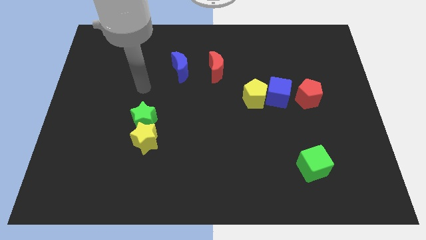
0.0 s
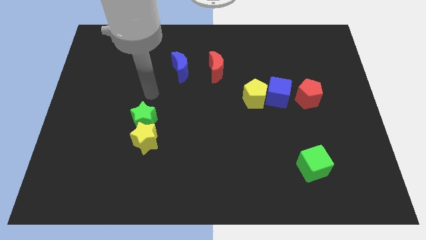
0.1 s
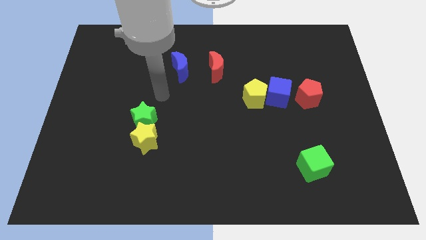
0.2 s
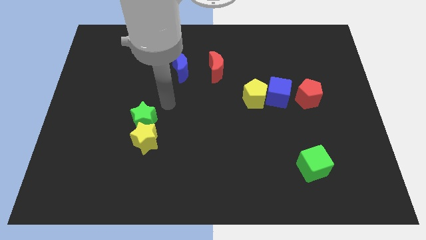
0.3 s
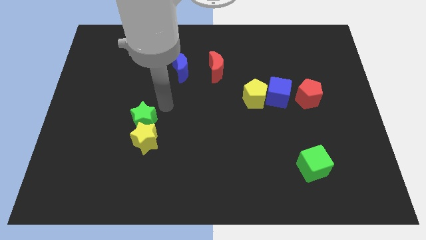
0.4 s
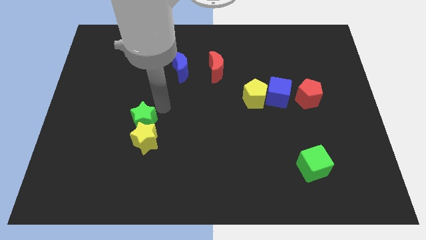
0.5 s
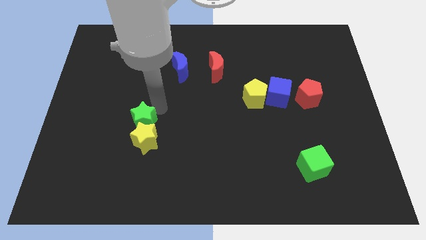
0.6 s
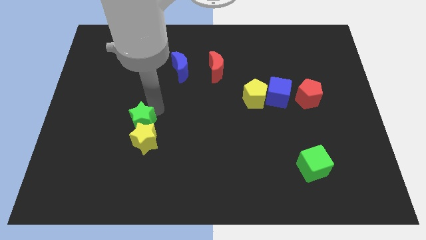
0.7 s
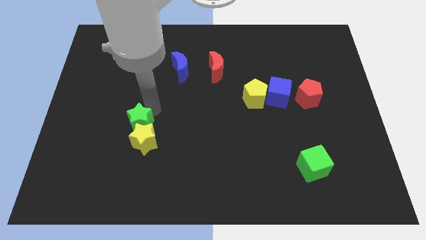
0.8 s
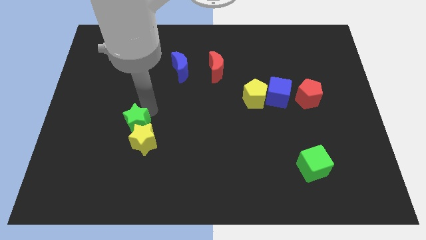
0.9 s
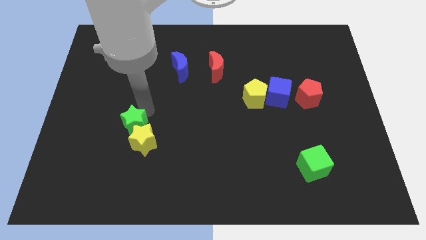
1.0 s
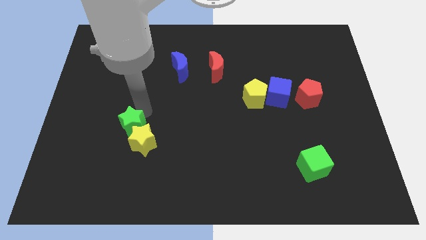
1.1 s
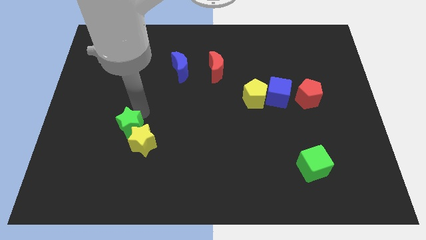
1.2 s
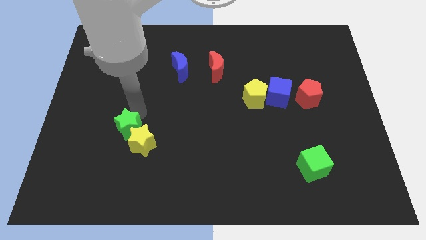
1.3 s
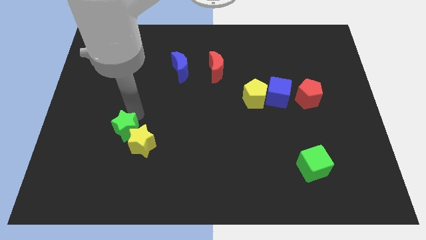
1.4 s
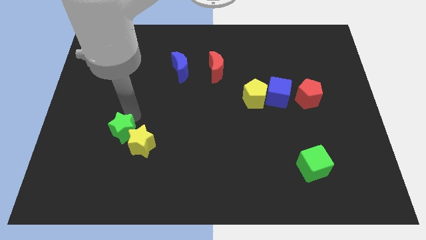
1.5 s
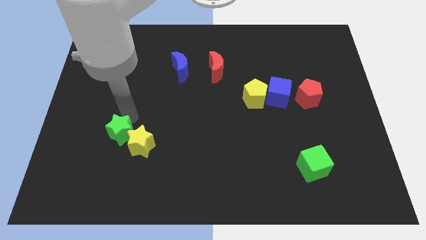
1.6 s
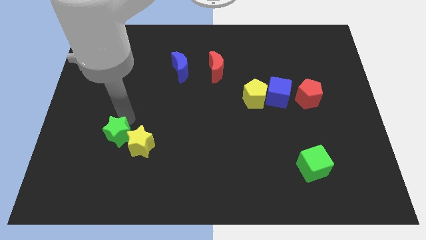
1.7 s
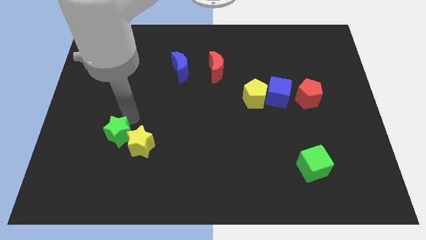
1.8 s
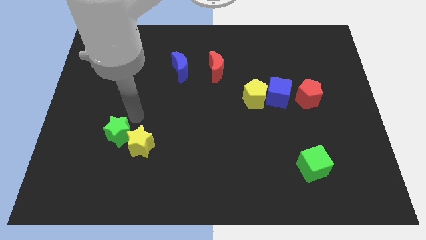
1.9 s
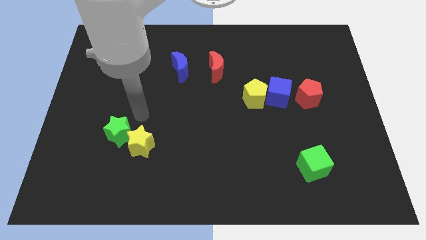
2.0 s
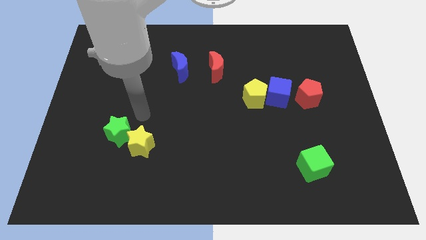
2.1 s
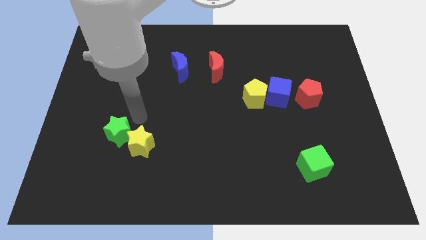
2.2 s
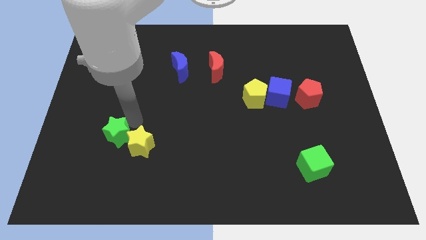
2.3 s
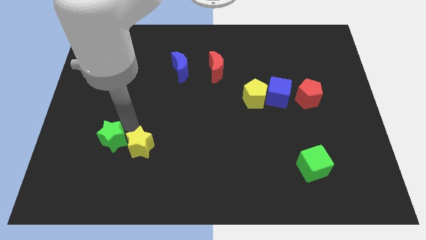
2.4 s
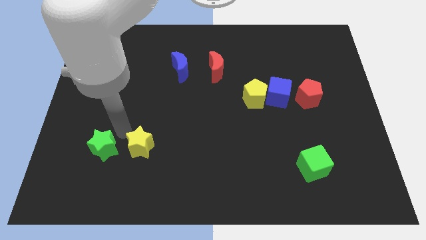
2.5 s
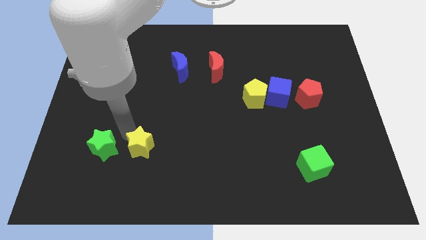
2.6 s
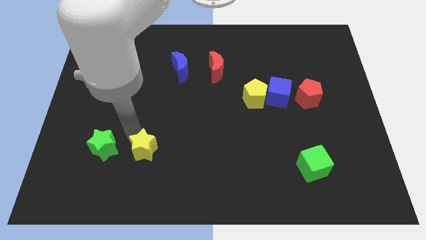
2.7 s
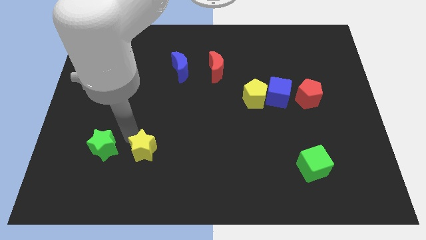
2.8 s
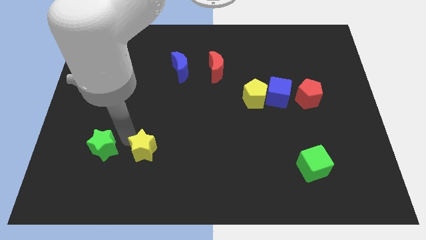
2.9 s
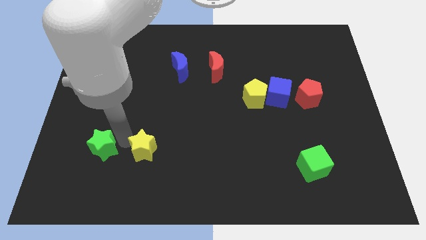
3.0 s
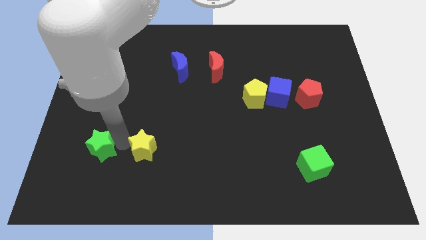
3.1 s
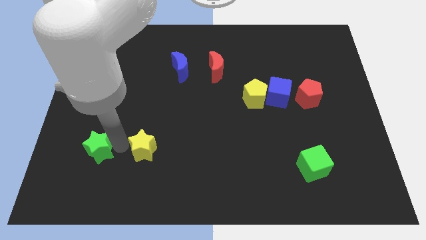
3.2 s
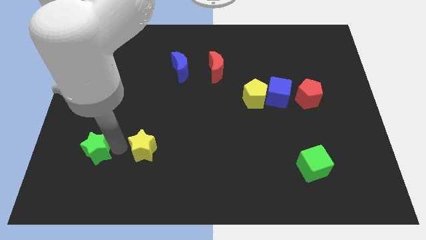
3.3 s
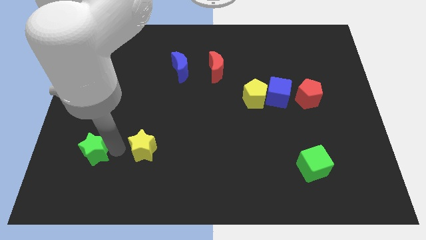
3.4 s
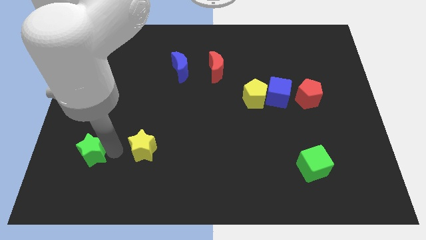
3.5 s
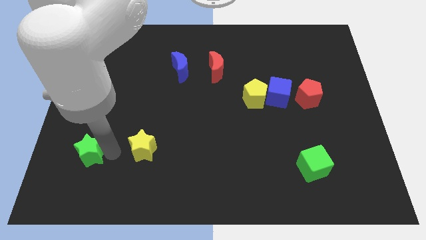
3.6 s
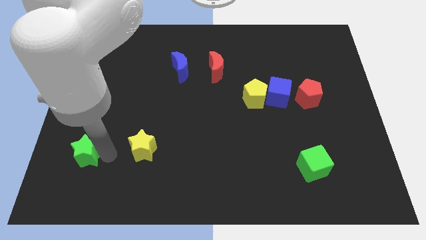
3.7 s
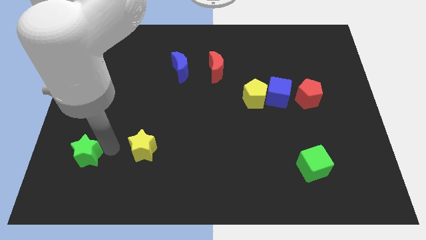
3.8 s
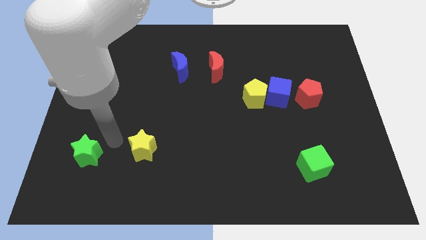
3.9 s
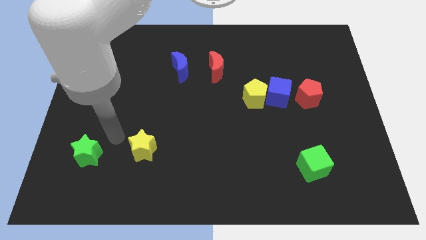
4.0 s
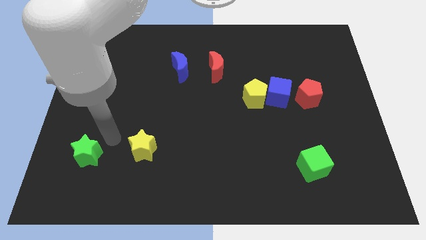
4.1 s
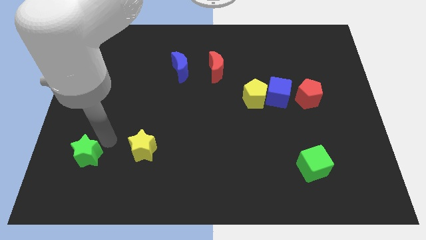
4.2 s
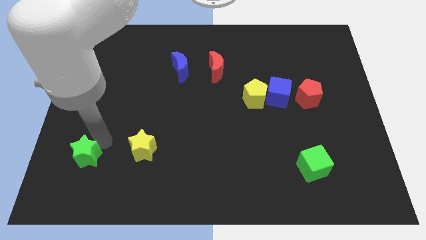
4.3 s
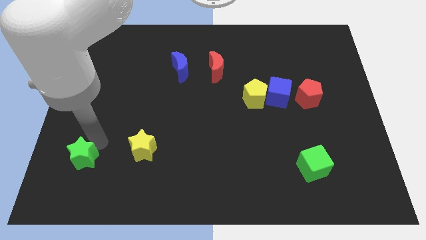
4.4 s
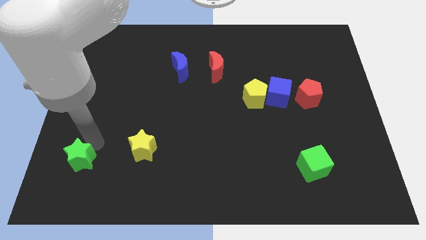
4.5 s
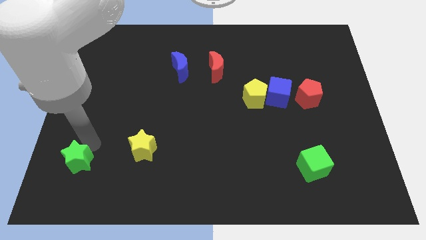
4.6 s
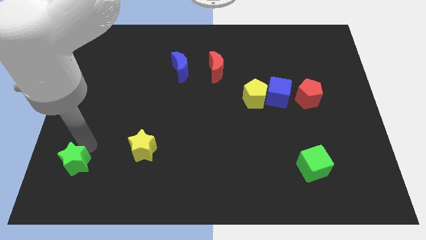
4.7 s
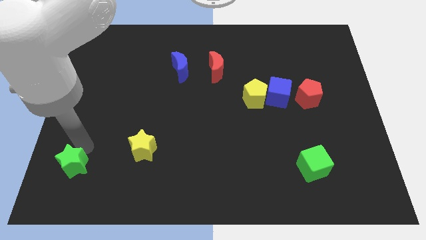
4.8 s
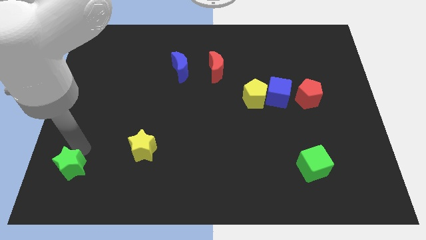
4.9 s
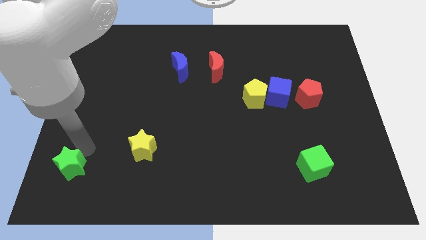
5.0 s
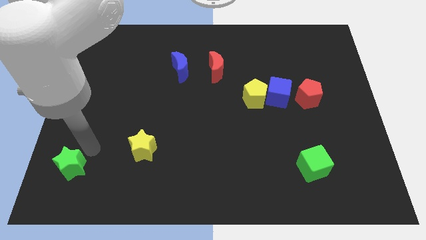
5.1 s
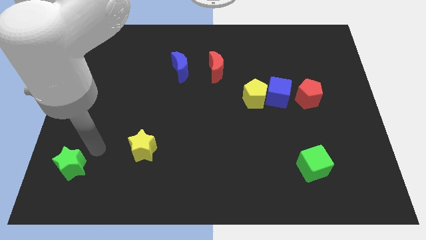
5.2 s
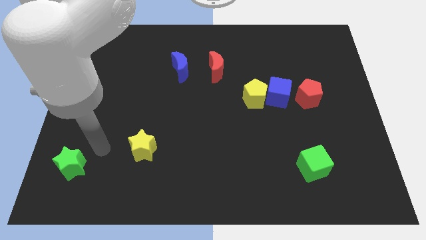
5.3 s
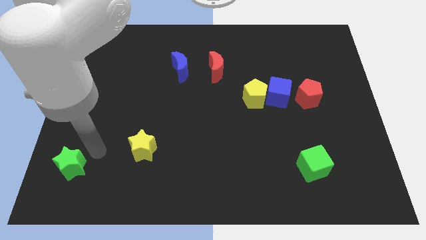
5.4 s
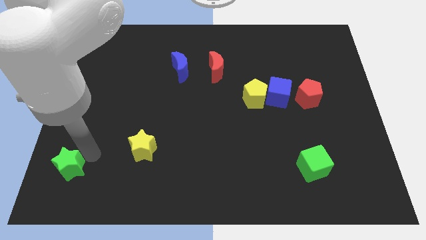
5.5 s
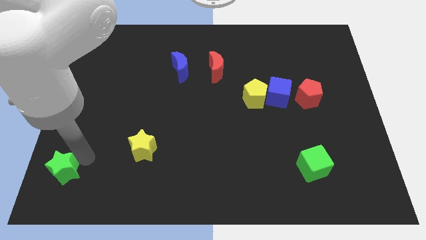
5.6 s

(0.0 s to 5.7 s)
move the green star to the bottom left of the board

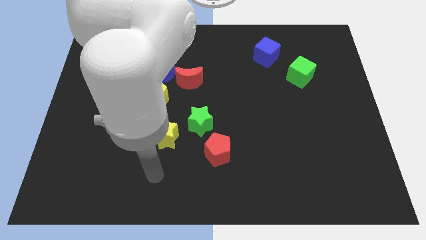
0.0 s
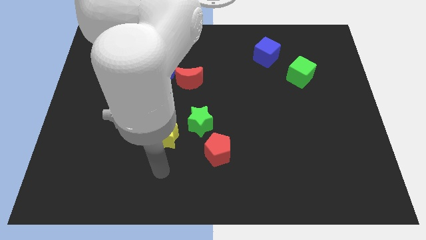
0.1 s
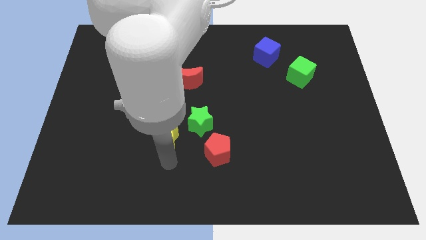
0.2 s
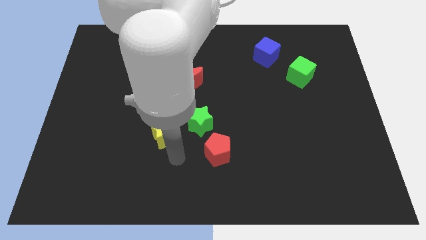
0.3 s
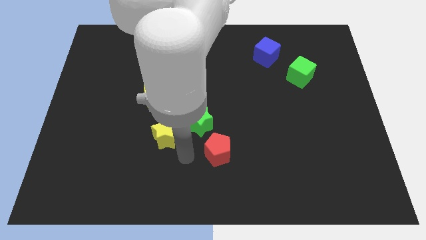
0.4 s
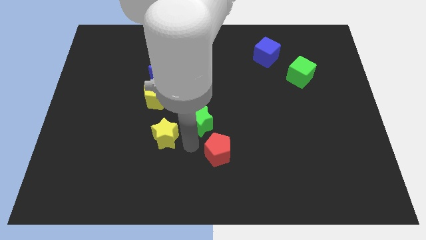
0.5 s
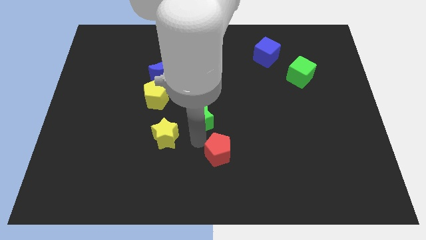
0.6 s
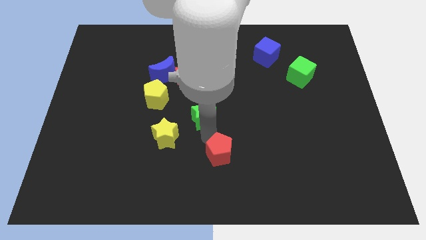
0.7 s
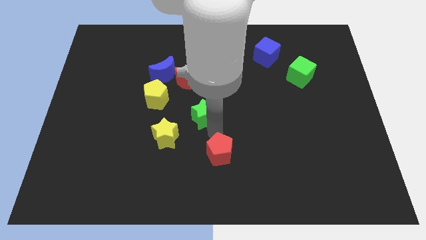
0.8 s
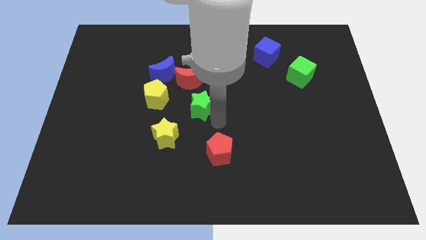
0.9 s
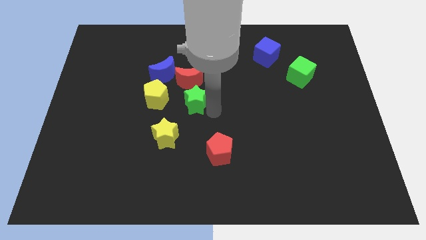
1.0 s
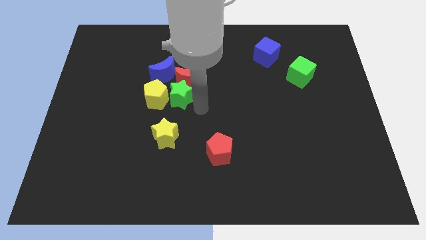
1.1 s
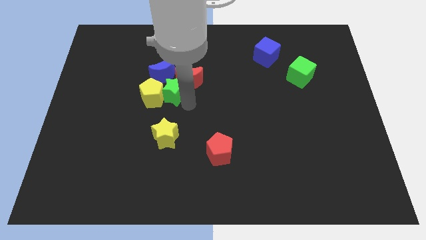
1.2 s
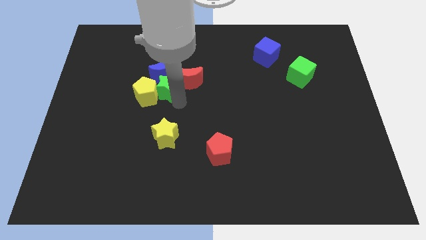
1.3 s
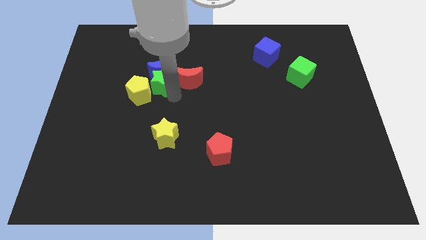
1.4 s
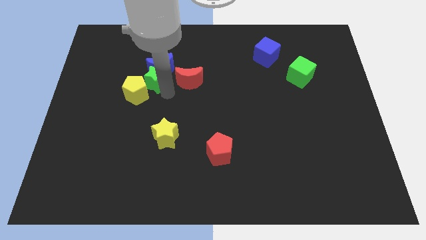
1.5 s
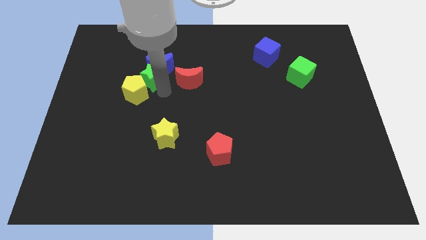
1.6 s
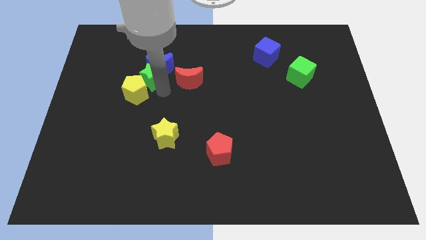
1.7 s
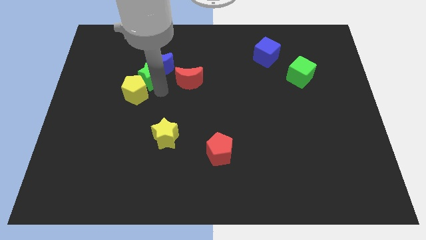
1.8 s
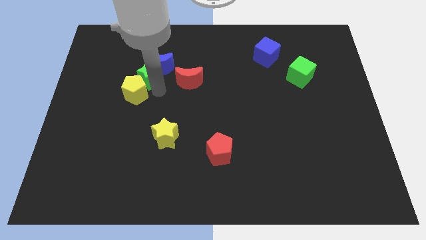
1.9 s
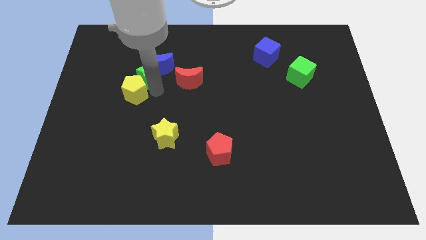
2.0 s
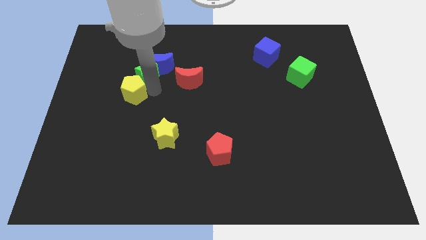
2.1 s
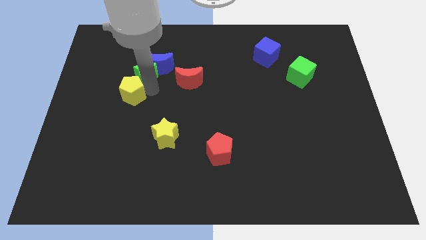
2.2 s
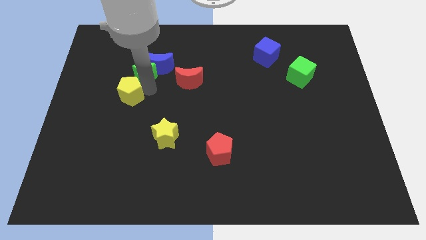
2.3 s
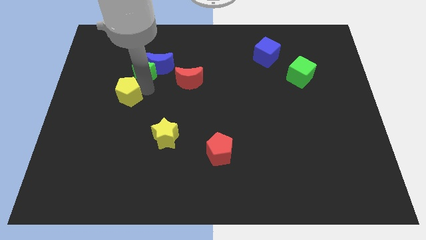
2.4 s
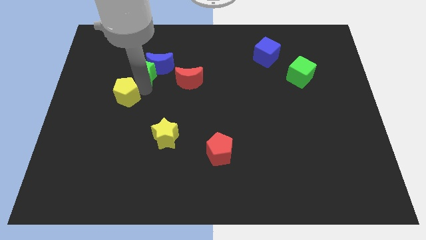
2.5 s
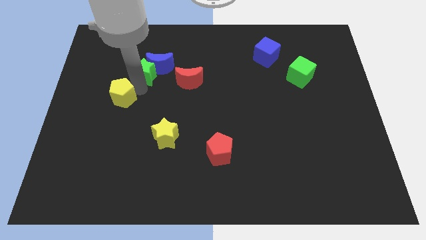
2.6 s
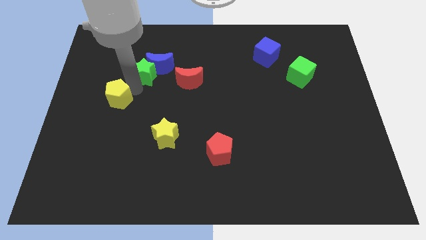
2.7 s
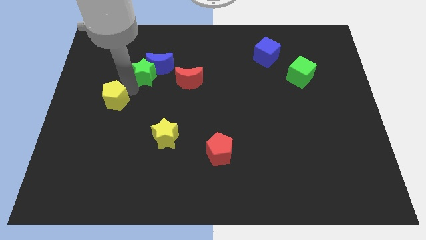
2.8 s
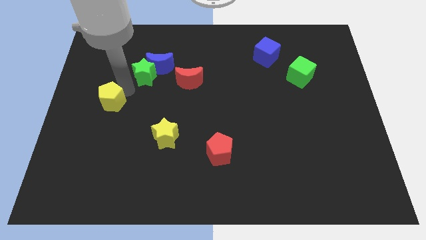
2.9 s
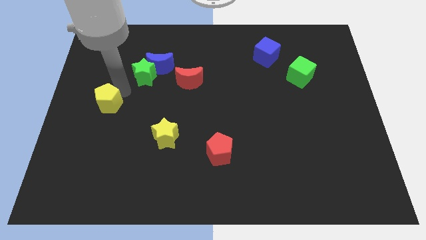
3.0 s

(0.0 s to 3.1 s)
move the yellow pentagon to the left side of the board
